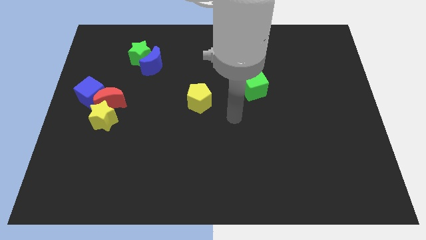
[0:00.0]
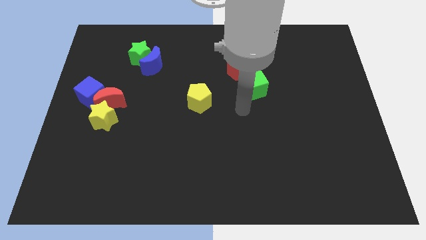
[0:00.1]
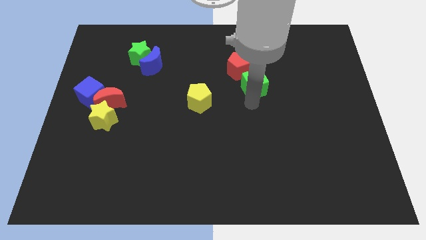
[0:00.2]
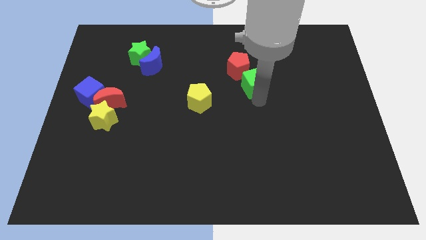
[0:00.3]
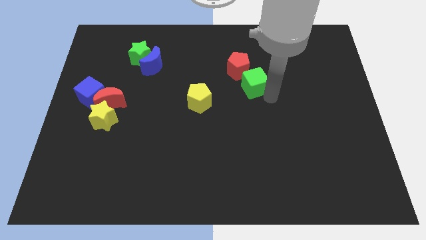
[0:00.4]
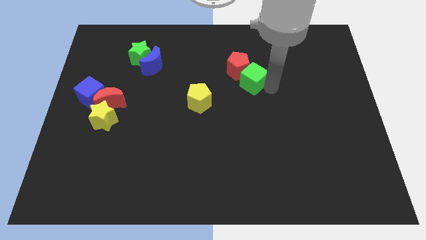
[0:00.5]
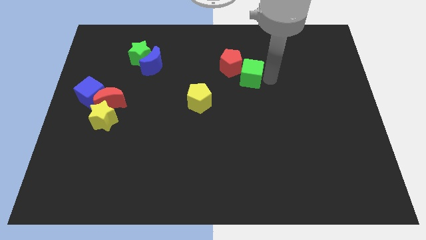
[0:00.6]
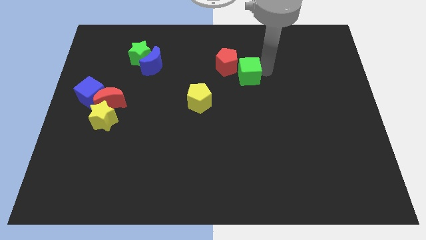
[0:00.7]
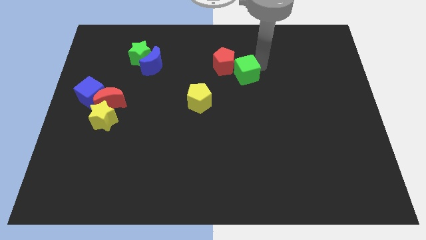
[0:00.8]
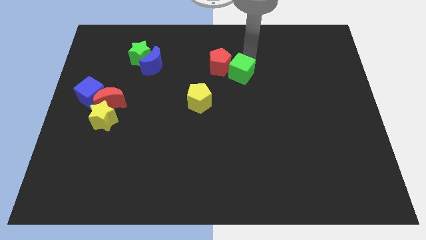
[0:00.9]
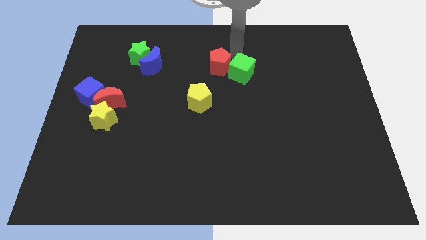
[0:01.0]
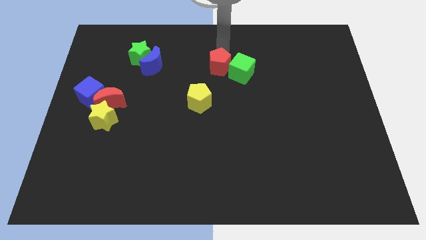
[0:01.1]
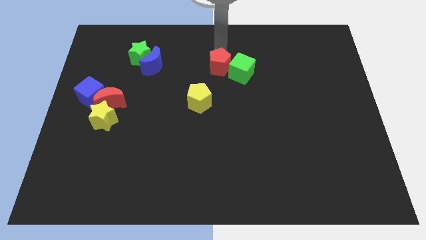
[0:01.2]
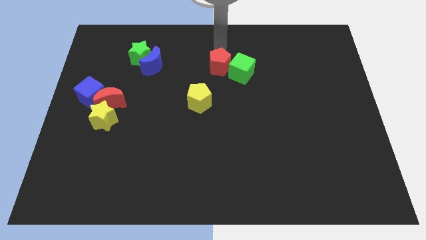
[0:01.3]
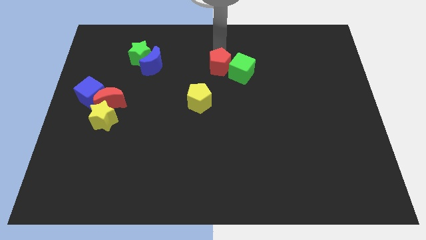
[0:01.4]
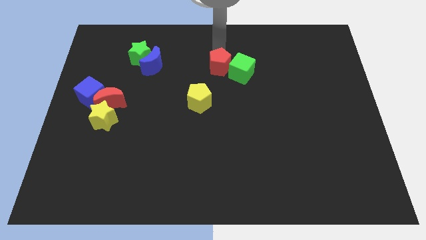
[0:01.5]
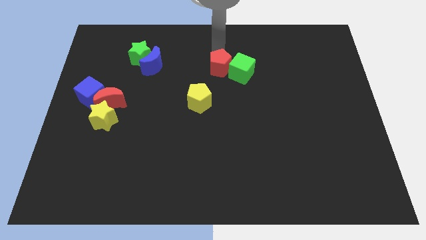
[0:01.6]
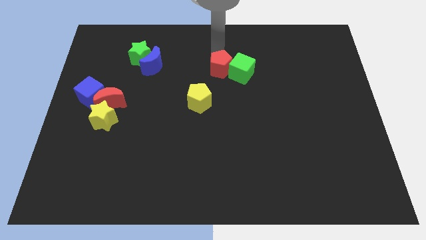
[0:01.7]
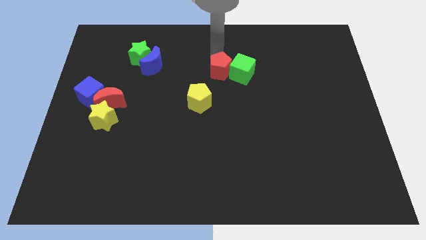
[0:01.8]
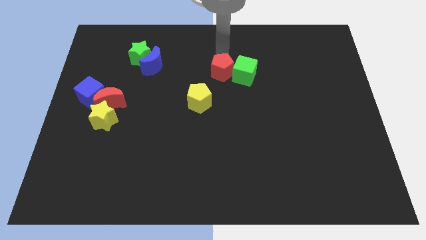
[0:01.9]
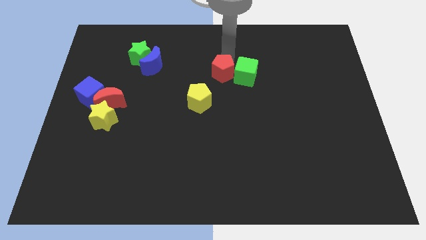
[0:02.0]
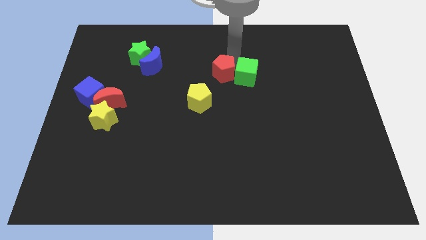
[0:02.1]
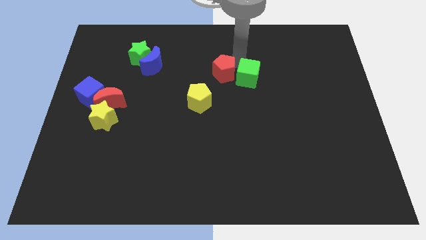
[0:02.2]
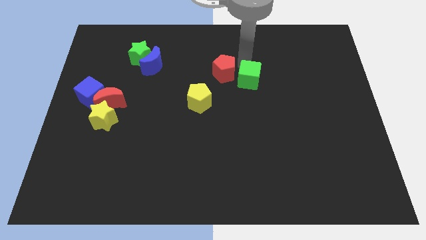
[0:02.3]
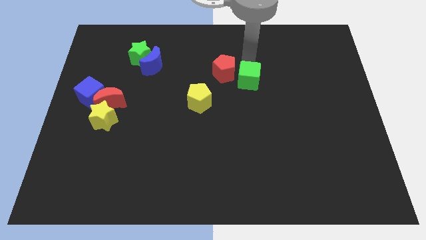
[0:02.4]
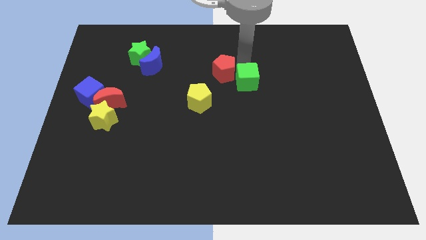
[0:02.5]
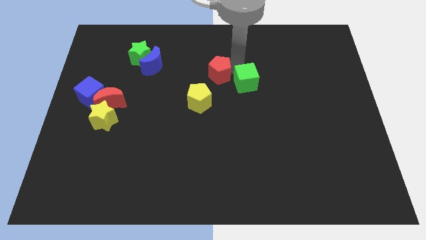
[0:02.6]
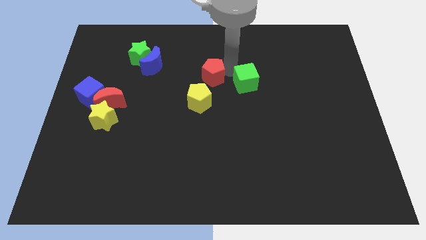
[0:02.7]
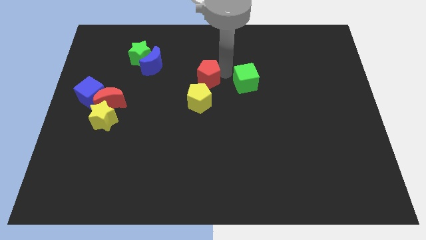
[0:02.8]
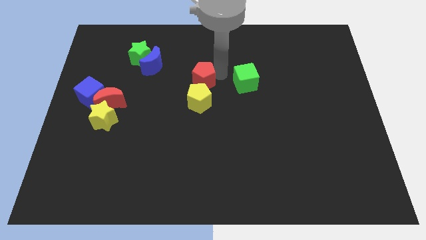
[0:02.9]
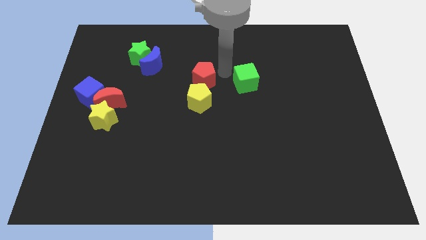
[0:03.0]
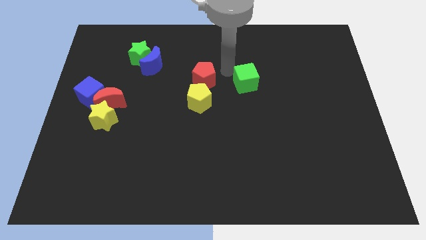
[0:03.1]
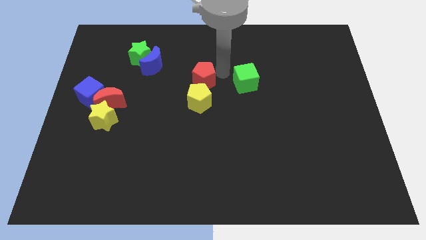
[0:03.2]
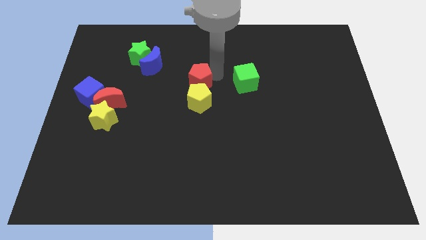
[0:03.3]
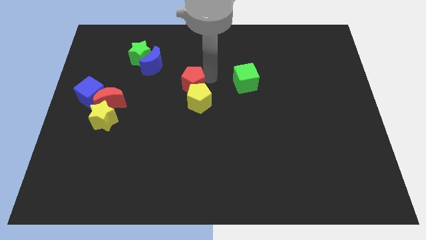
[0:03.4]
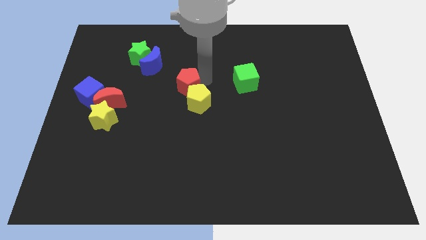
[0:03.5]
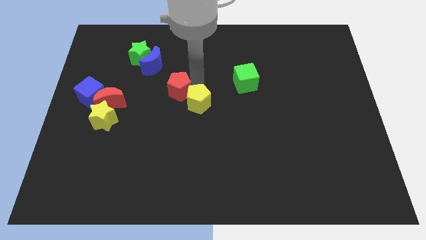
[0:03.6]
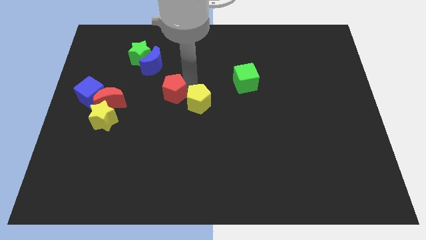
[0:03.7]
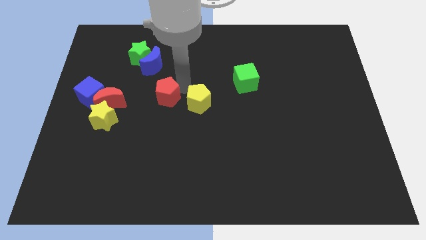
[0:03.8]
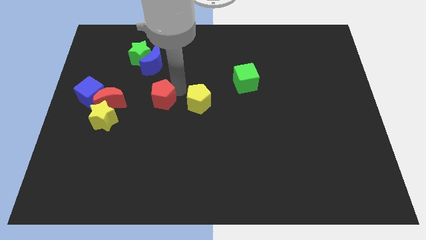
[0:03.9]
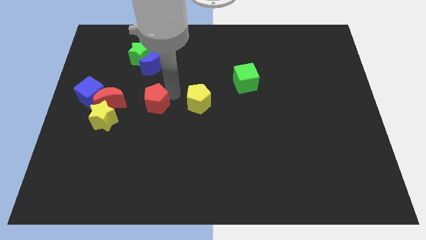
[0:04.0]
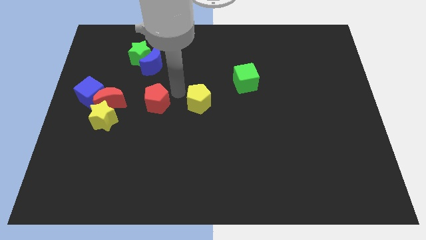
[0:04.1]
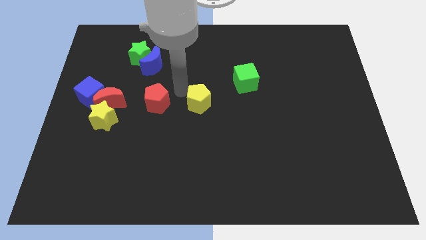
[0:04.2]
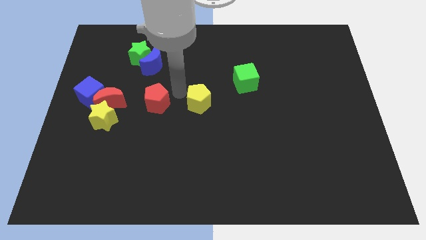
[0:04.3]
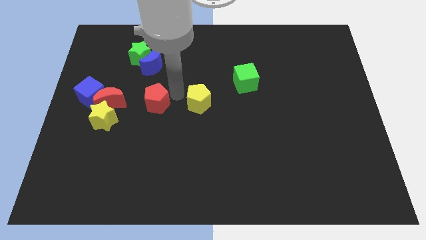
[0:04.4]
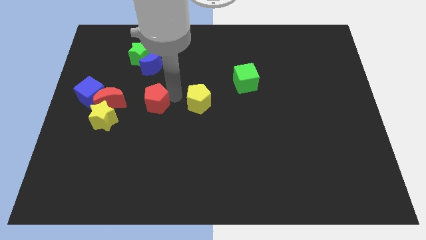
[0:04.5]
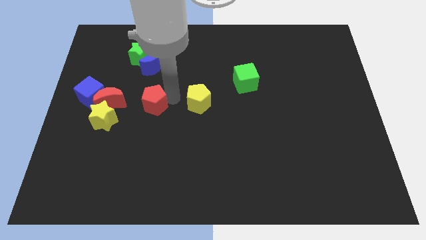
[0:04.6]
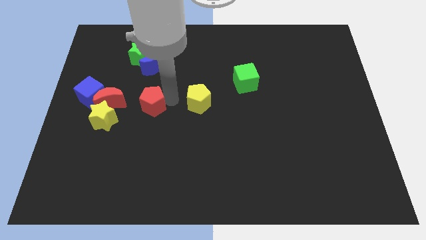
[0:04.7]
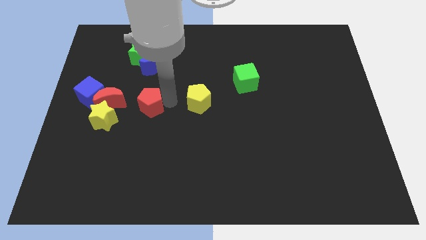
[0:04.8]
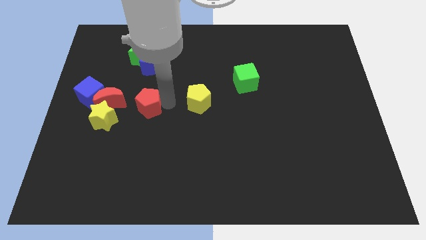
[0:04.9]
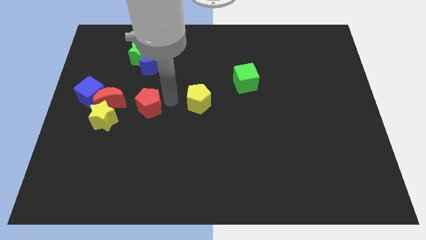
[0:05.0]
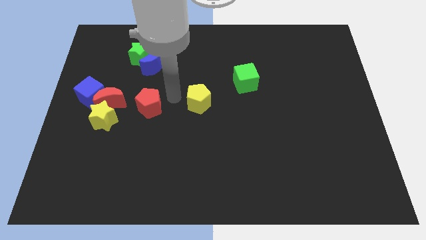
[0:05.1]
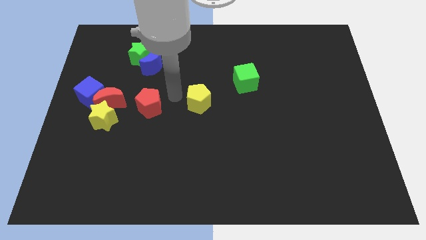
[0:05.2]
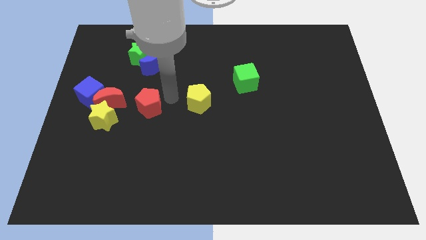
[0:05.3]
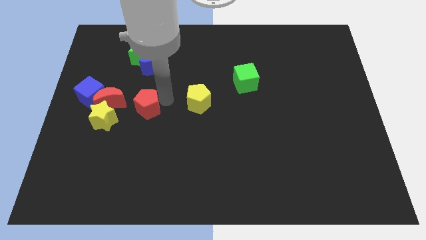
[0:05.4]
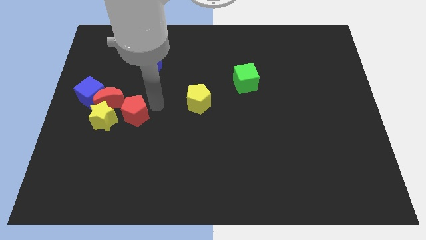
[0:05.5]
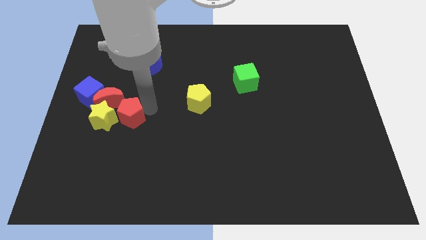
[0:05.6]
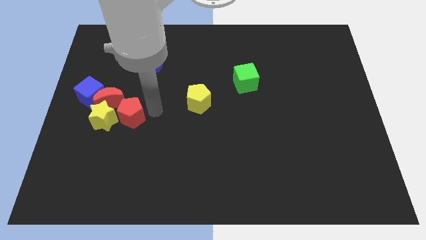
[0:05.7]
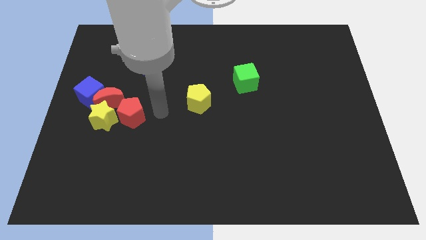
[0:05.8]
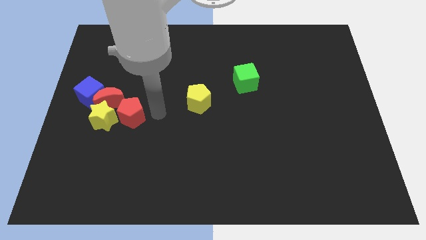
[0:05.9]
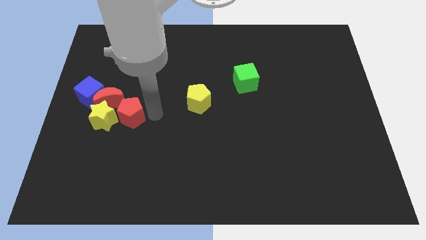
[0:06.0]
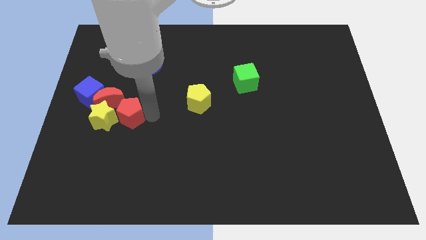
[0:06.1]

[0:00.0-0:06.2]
move the red pentagon towards the yellow star

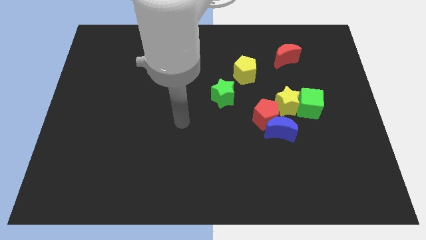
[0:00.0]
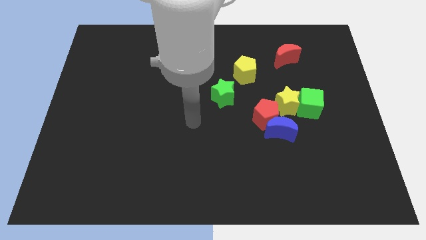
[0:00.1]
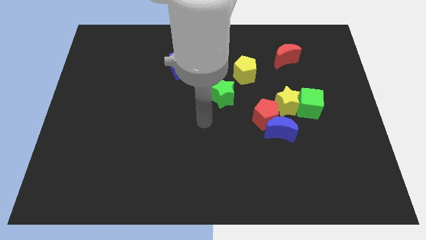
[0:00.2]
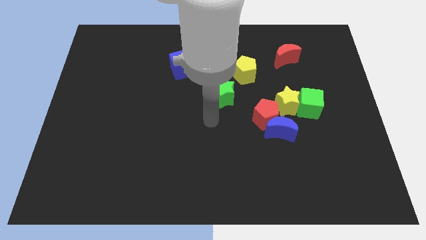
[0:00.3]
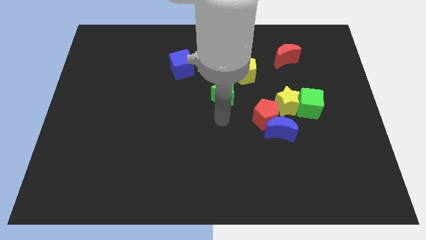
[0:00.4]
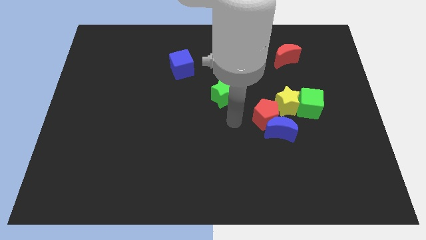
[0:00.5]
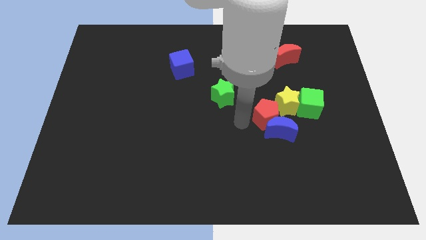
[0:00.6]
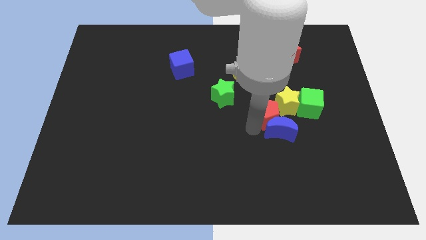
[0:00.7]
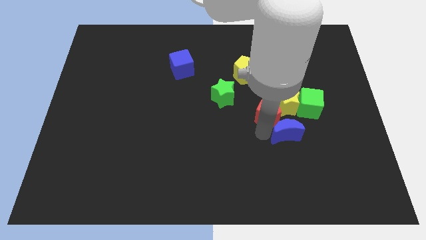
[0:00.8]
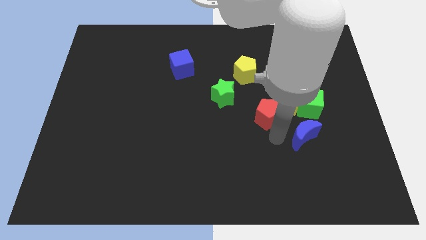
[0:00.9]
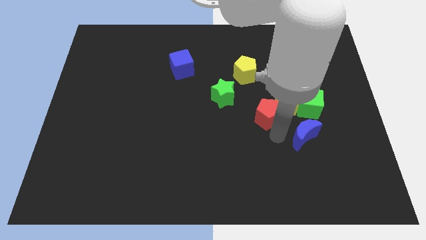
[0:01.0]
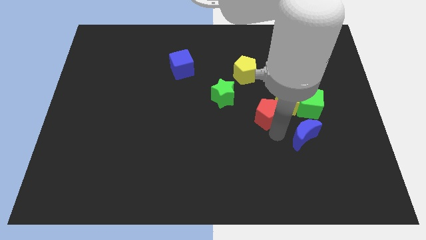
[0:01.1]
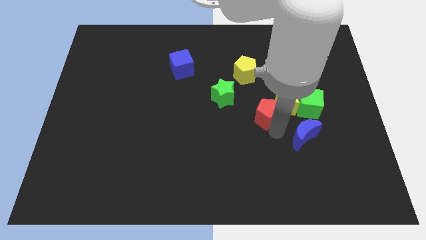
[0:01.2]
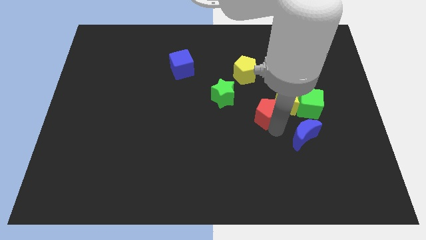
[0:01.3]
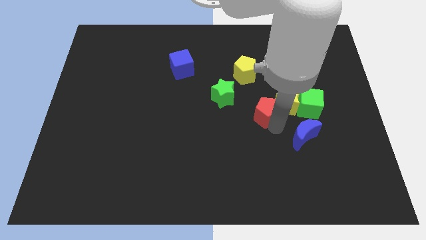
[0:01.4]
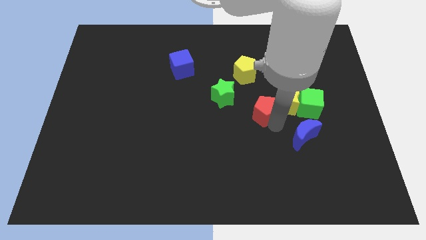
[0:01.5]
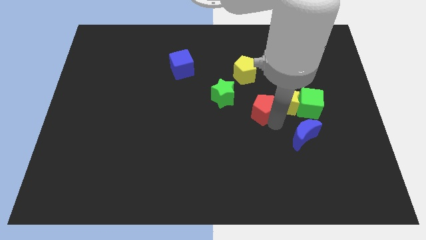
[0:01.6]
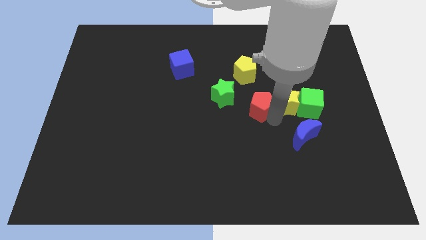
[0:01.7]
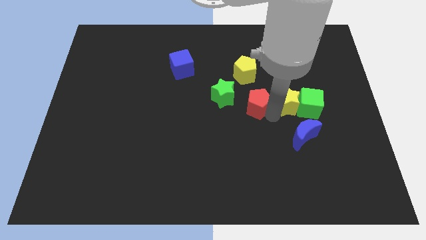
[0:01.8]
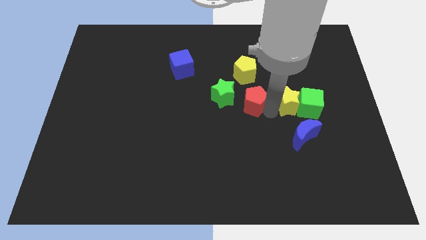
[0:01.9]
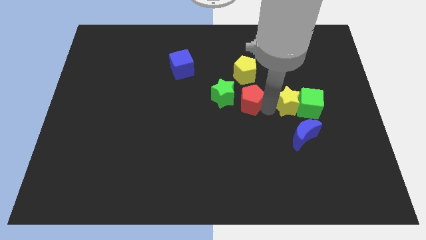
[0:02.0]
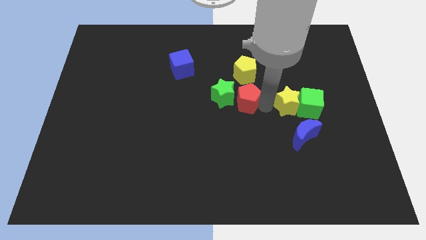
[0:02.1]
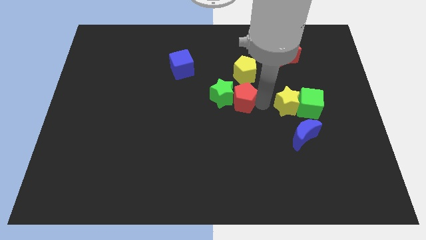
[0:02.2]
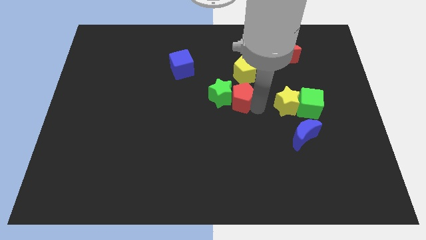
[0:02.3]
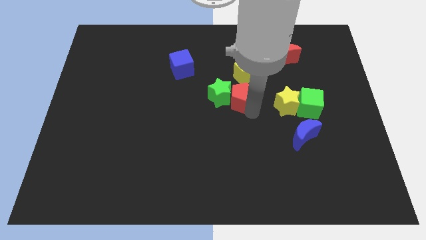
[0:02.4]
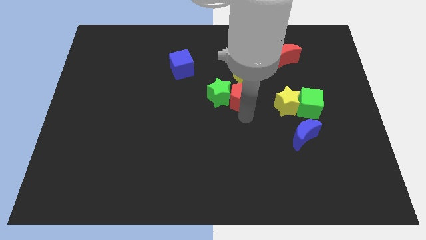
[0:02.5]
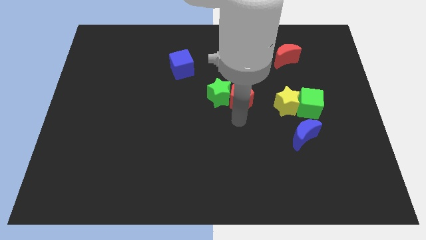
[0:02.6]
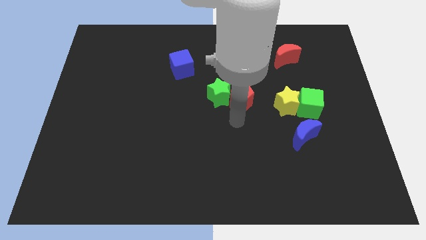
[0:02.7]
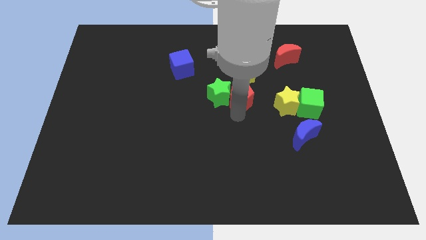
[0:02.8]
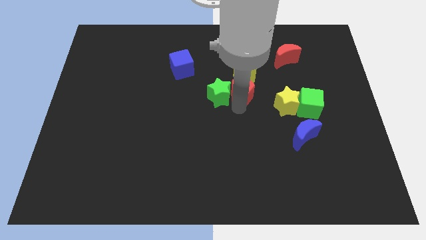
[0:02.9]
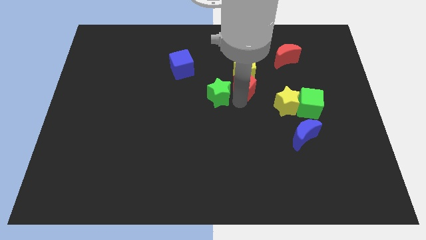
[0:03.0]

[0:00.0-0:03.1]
push the red pentagon towards the yellow pentagon
